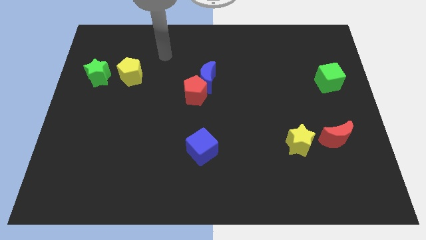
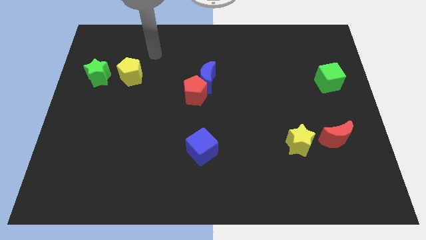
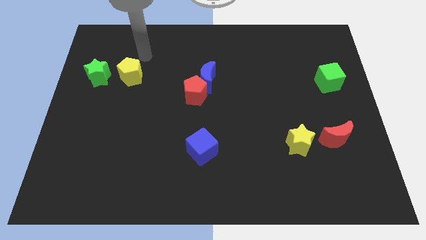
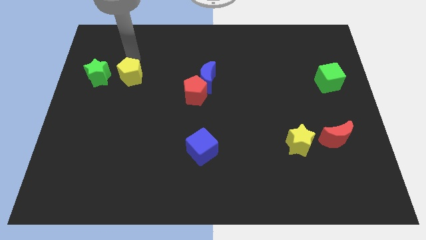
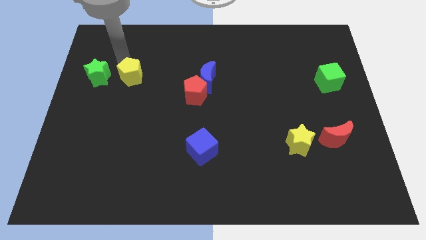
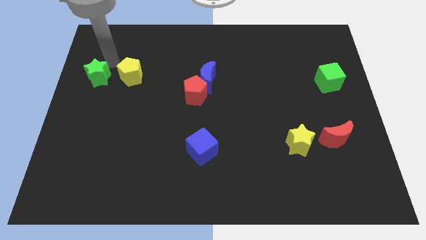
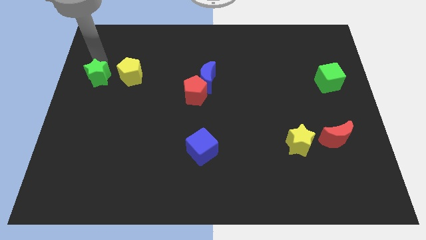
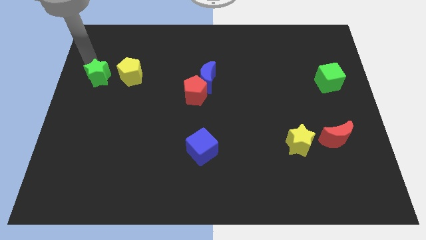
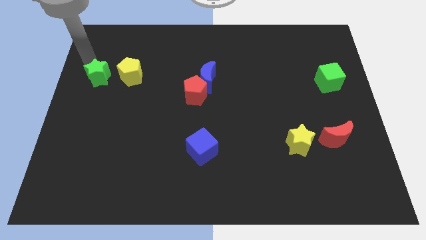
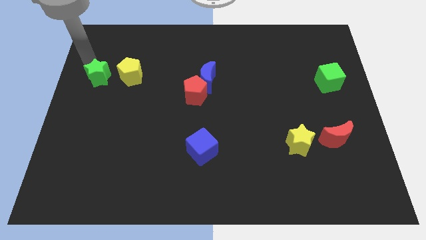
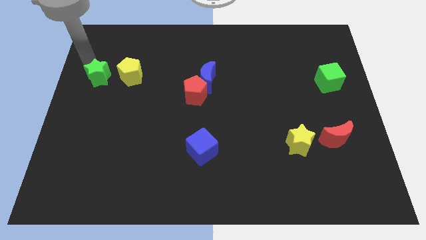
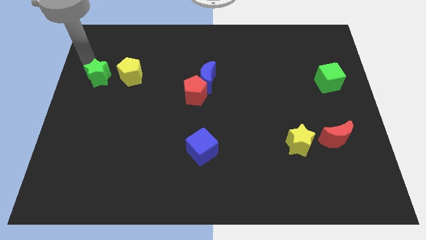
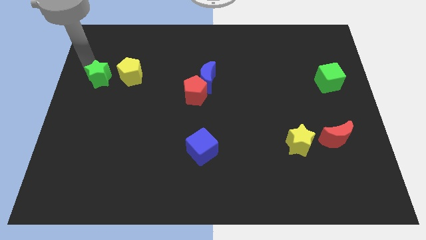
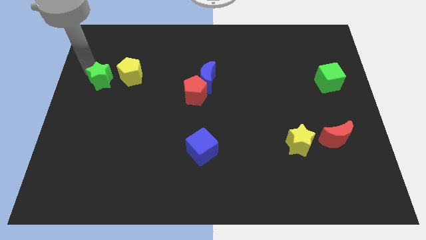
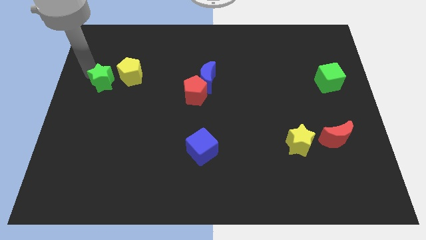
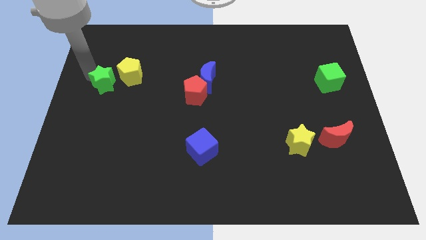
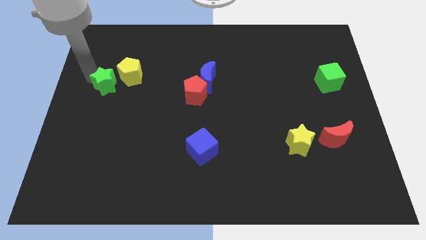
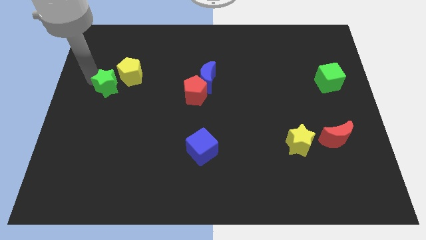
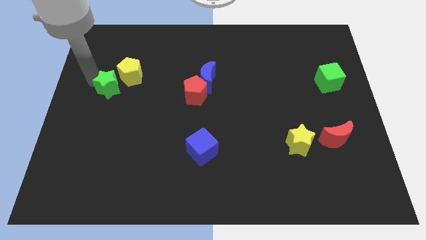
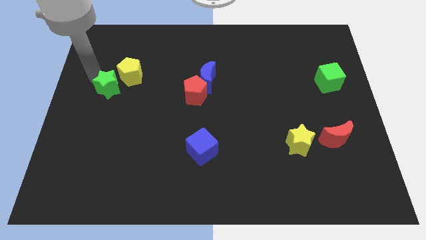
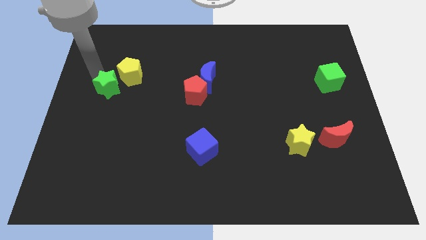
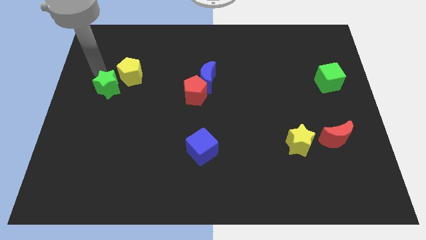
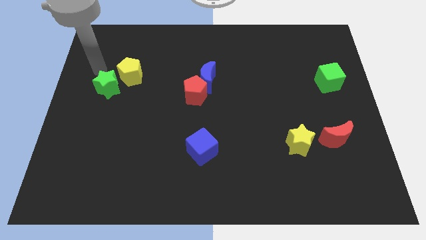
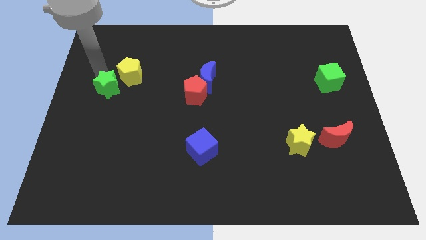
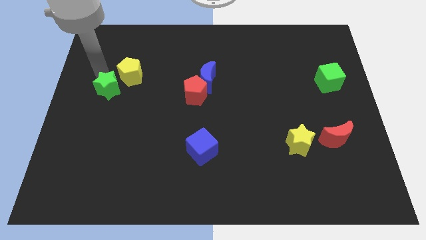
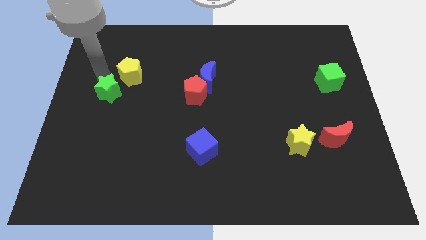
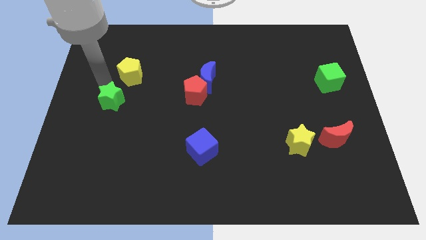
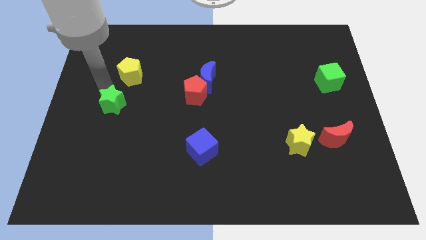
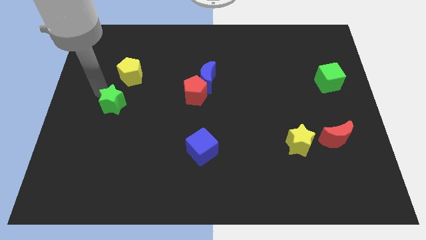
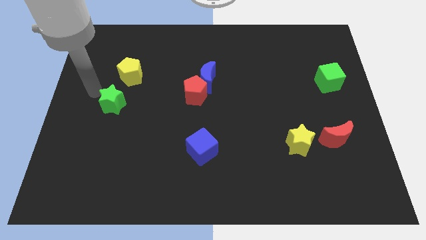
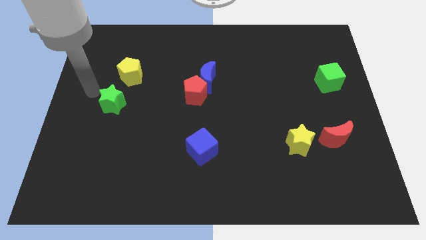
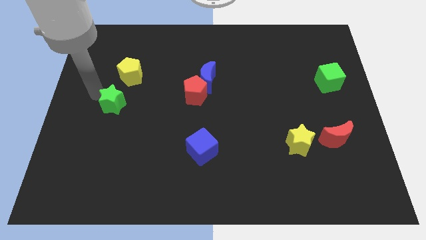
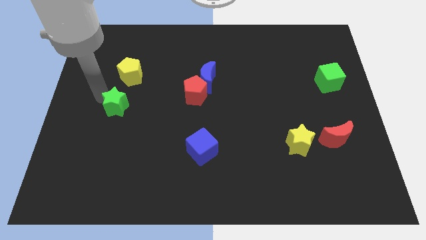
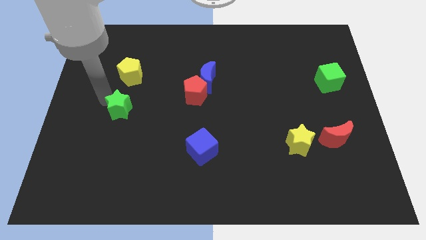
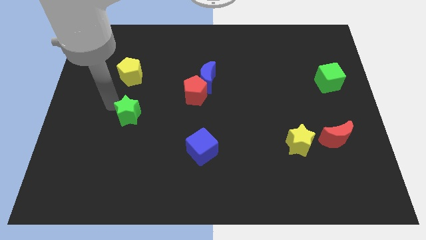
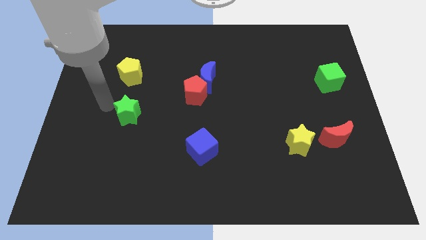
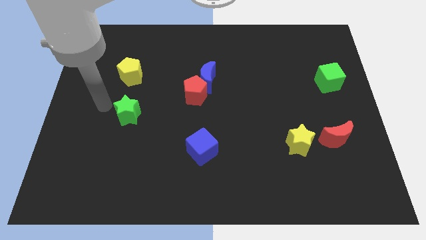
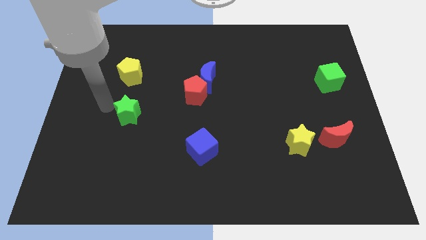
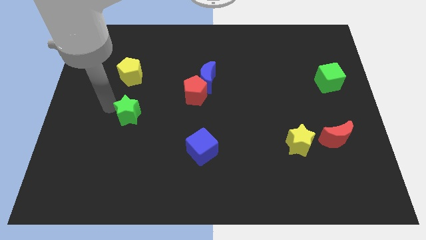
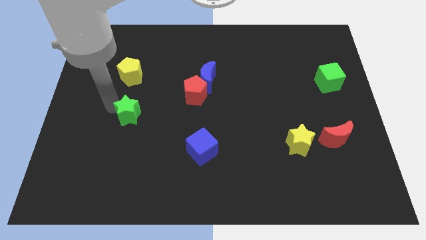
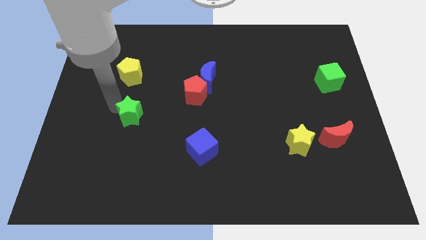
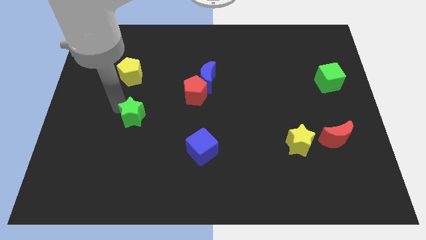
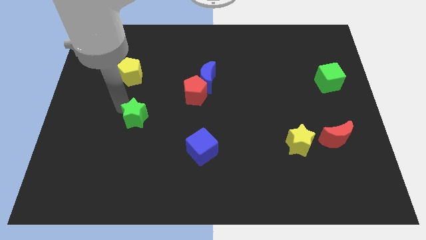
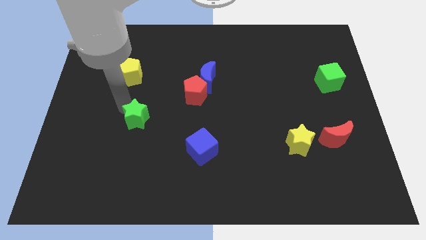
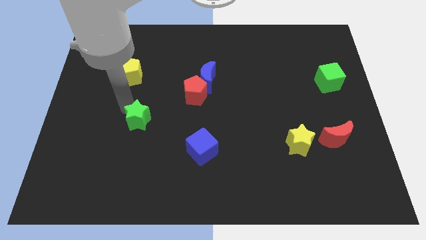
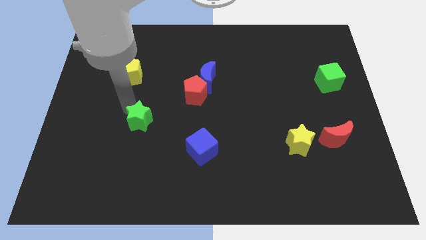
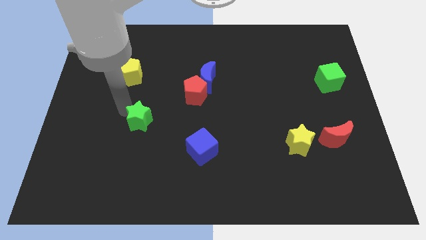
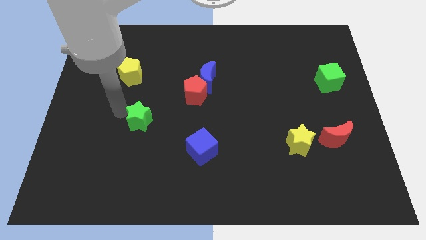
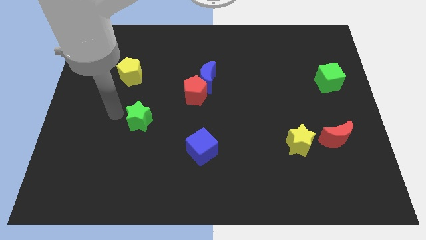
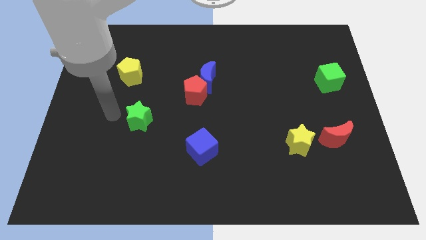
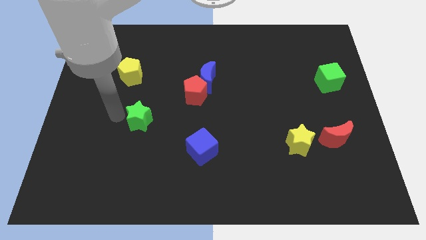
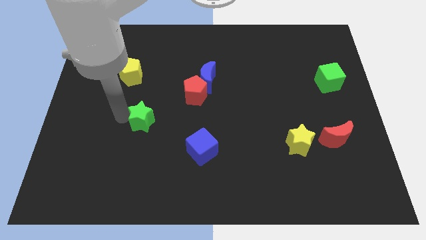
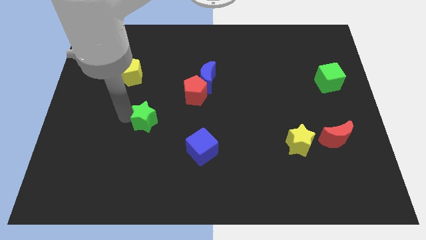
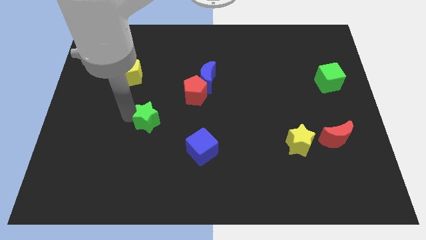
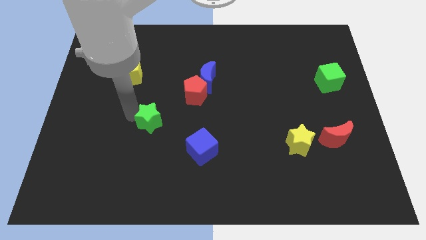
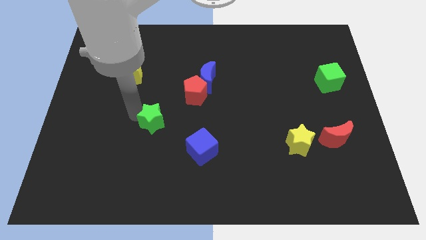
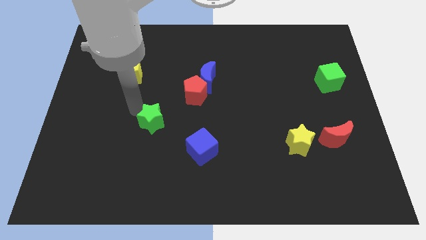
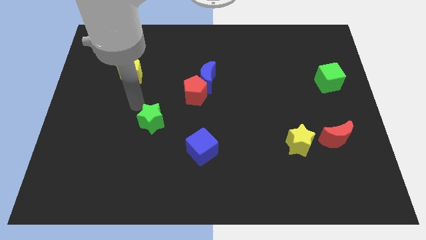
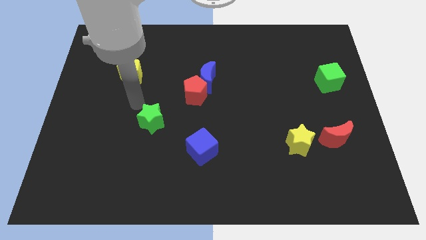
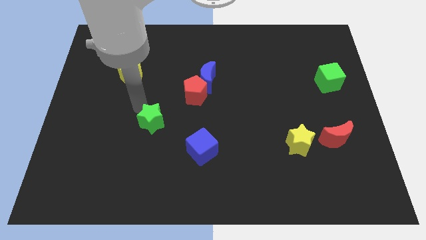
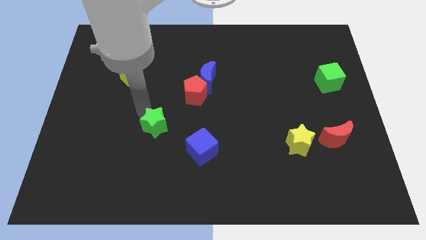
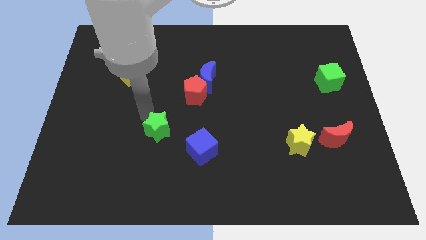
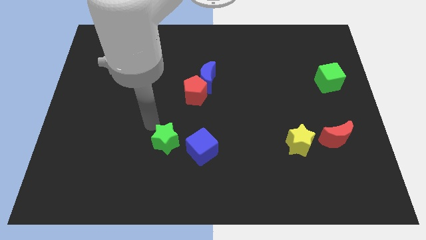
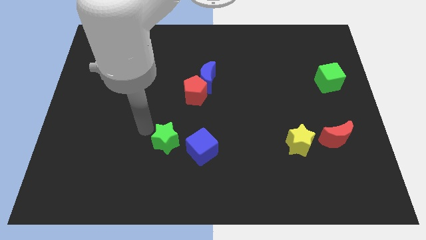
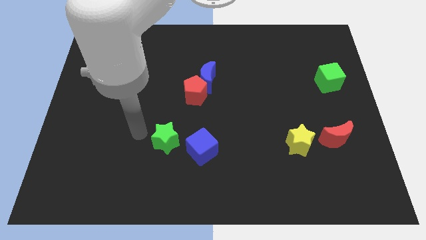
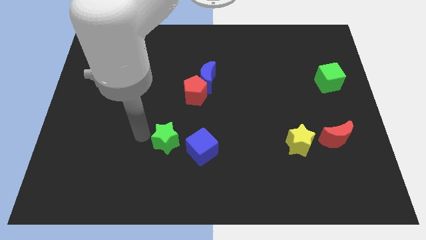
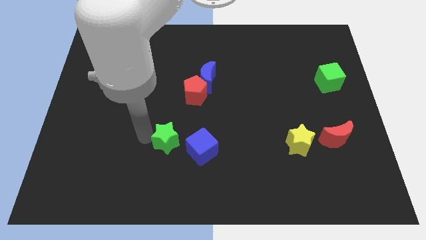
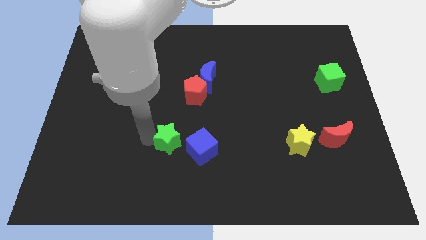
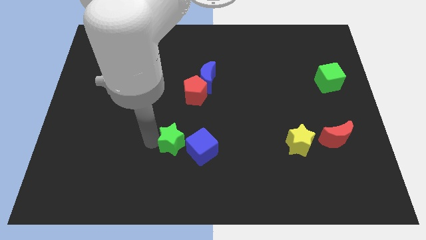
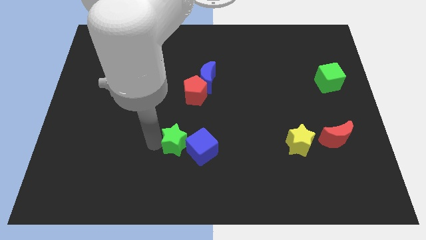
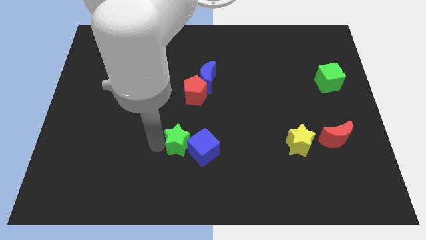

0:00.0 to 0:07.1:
put the green star to the blue cube
